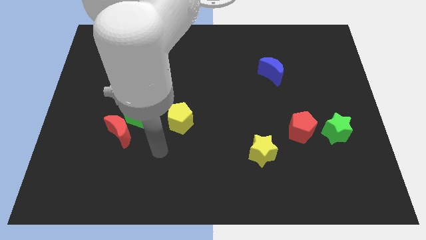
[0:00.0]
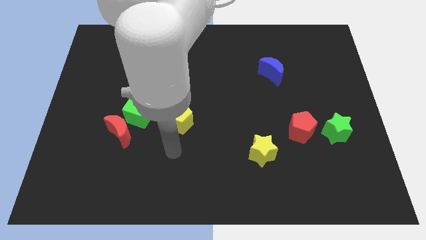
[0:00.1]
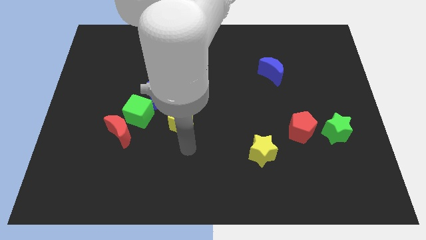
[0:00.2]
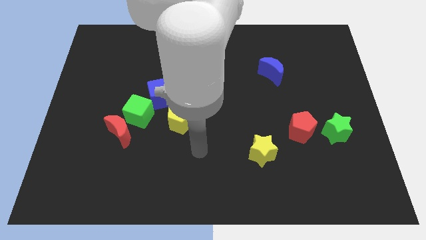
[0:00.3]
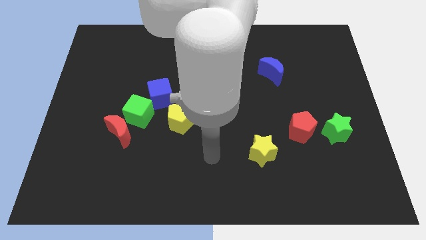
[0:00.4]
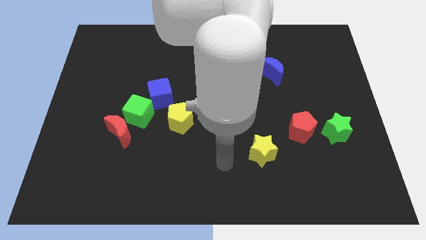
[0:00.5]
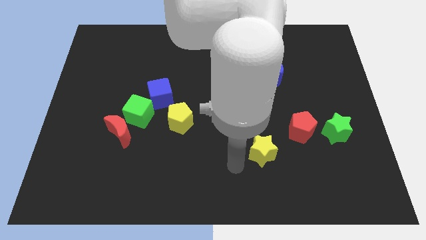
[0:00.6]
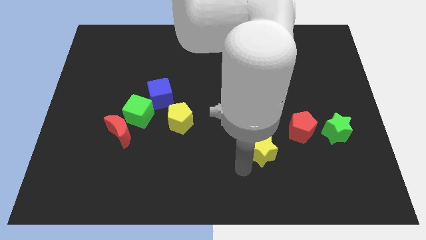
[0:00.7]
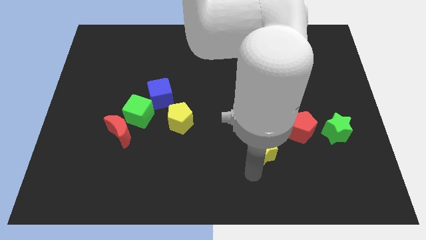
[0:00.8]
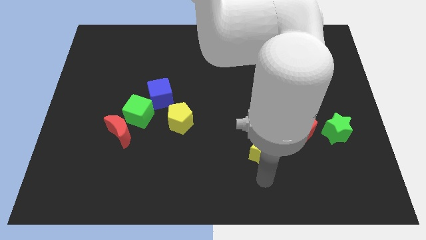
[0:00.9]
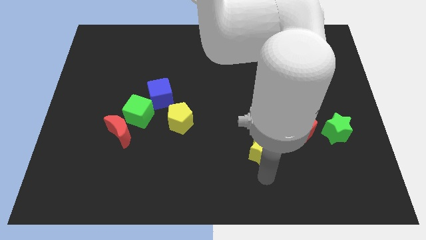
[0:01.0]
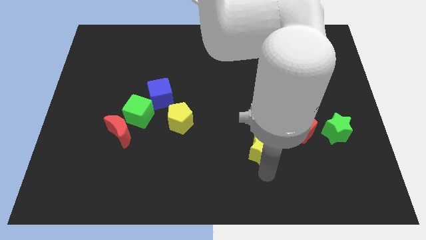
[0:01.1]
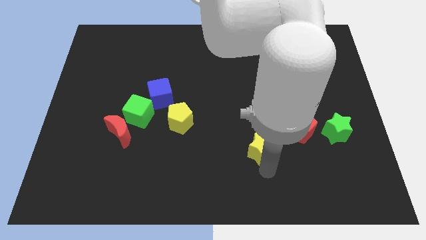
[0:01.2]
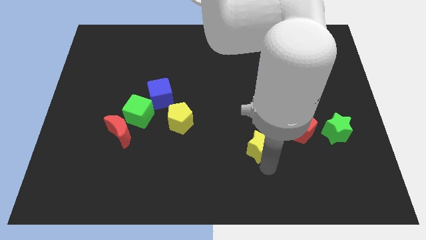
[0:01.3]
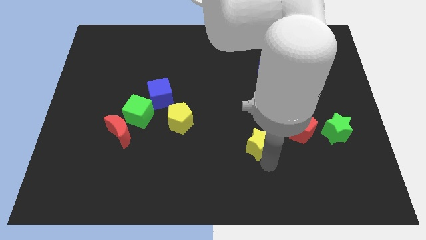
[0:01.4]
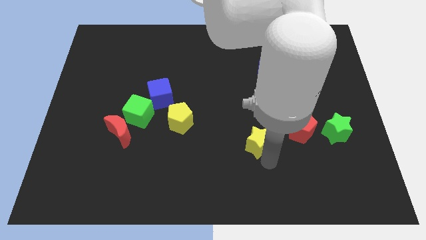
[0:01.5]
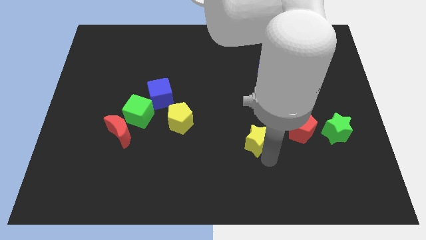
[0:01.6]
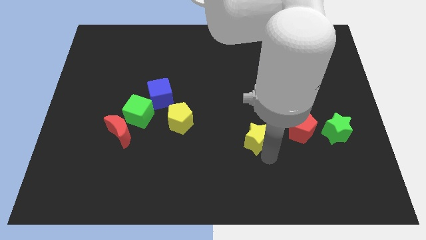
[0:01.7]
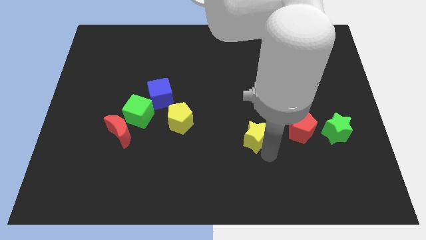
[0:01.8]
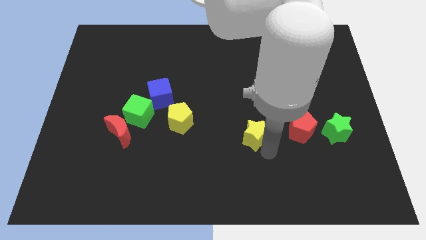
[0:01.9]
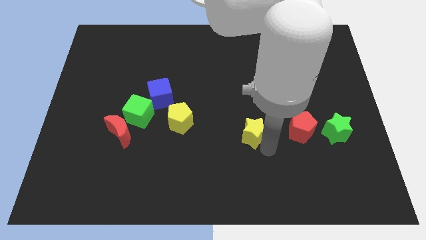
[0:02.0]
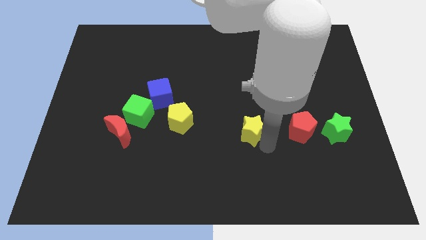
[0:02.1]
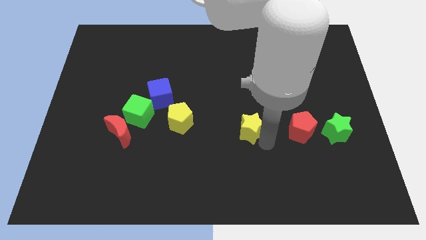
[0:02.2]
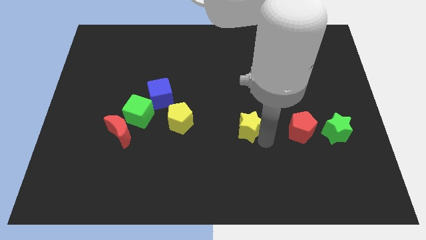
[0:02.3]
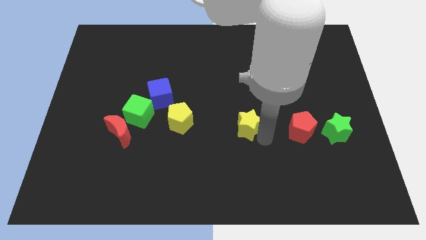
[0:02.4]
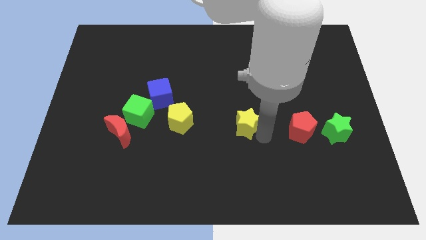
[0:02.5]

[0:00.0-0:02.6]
move the yellow star up somewhat

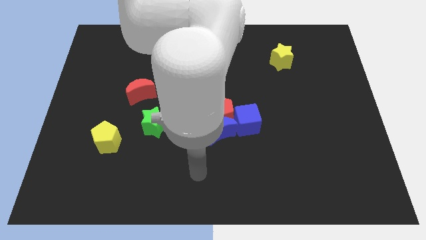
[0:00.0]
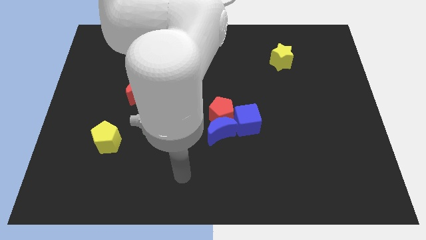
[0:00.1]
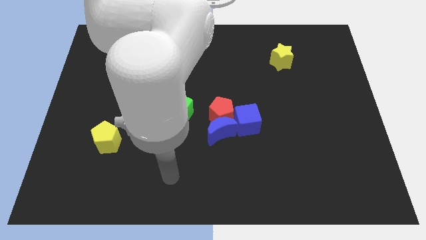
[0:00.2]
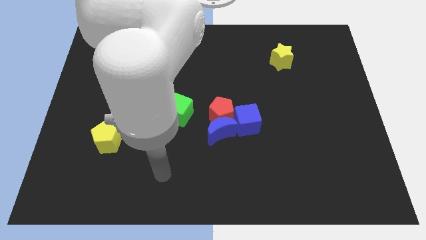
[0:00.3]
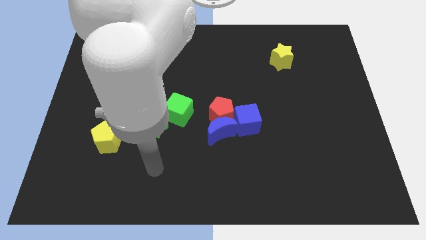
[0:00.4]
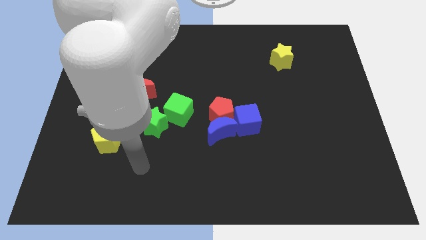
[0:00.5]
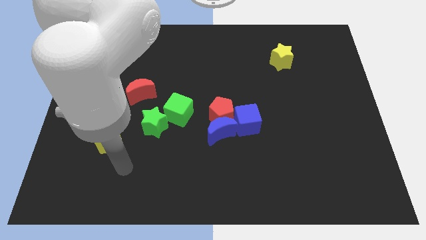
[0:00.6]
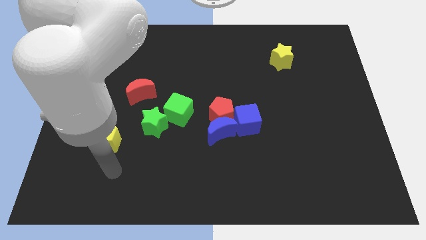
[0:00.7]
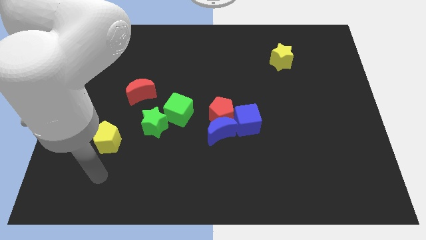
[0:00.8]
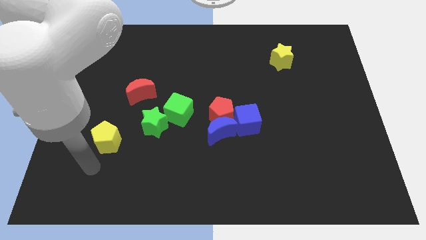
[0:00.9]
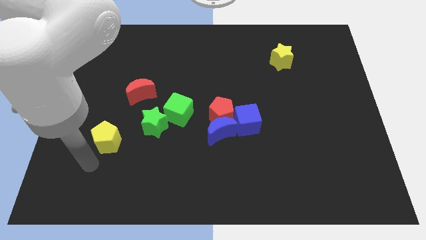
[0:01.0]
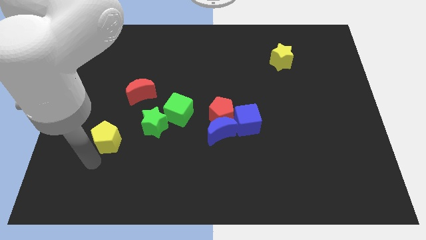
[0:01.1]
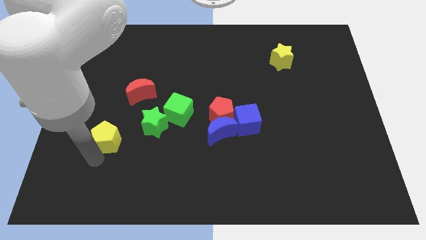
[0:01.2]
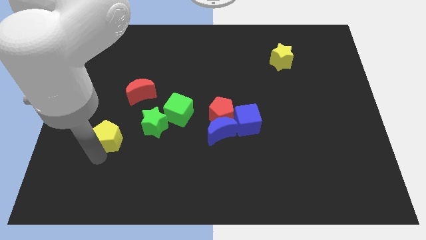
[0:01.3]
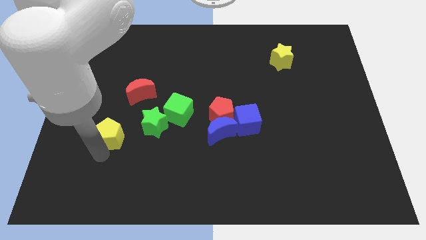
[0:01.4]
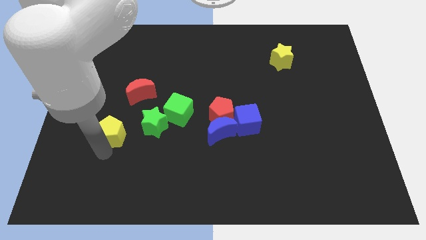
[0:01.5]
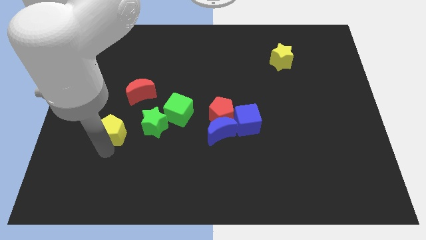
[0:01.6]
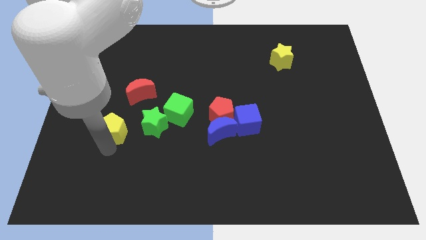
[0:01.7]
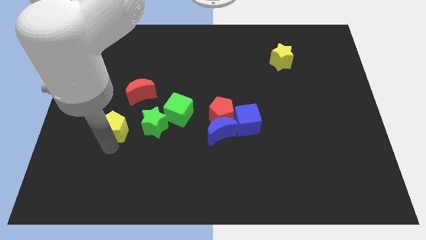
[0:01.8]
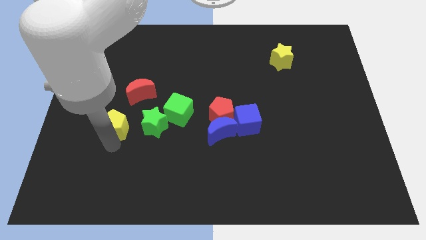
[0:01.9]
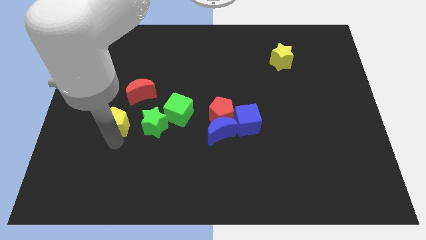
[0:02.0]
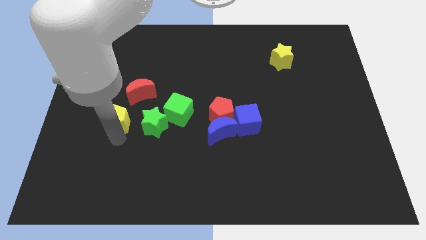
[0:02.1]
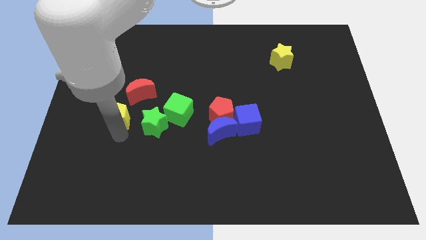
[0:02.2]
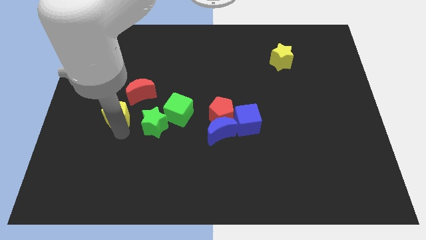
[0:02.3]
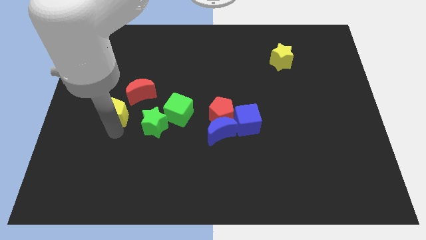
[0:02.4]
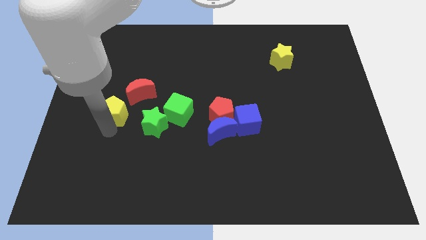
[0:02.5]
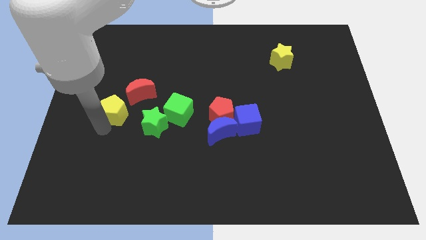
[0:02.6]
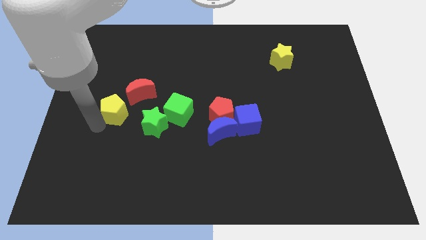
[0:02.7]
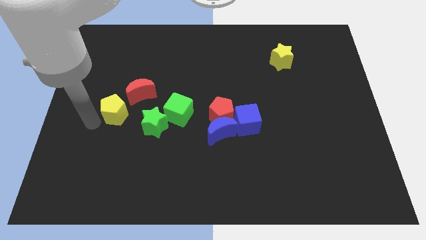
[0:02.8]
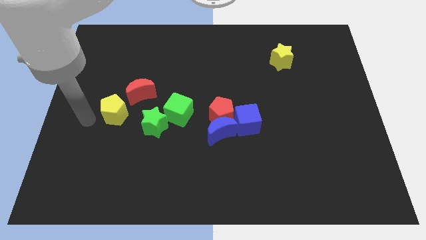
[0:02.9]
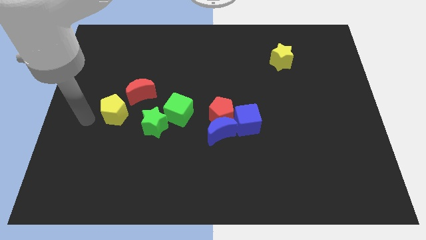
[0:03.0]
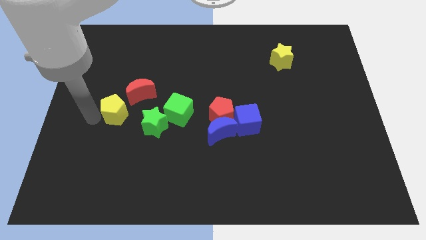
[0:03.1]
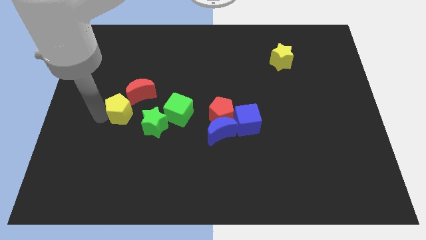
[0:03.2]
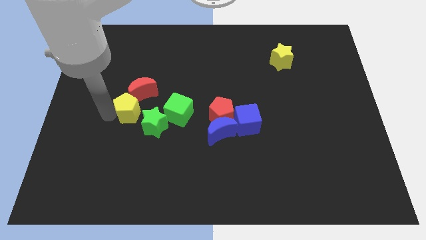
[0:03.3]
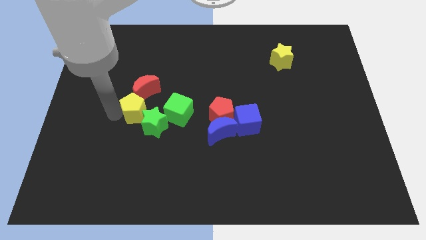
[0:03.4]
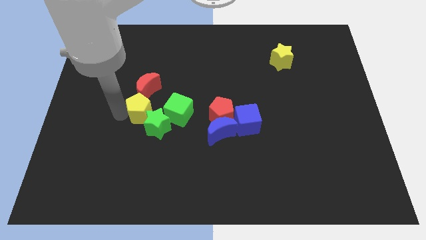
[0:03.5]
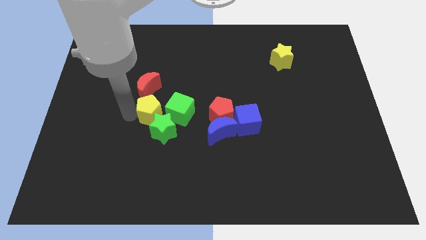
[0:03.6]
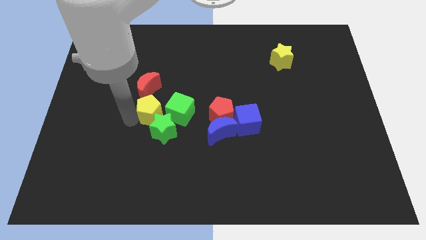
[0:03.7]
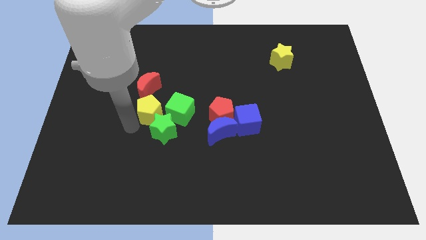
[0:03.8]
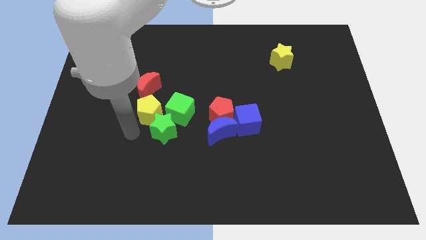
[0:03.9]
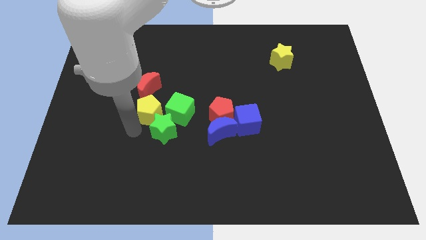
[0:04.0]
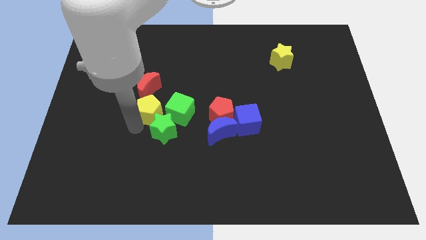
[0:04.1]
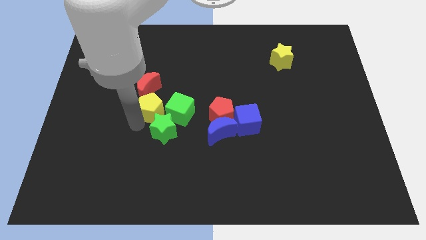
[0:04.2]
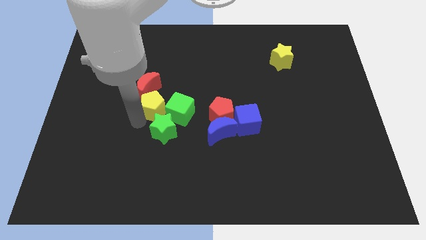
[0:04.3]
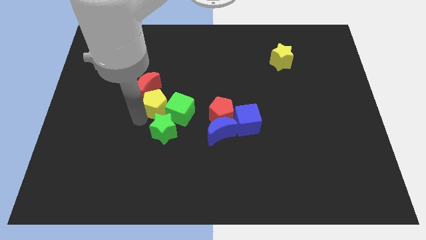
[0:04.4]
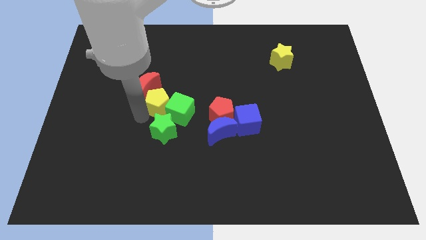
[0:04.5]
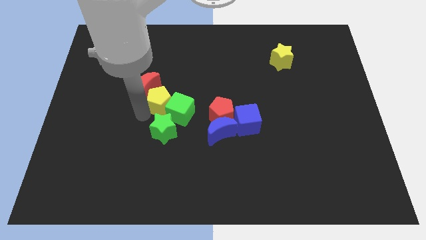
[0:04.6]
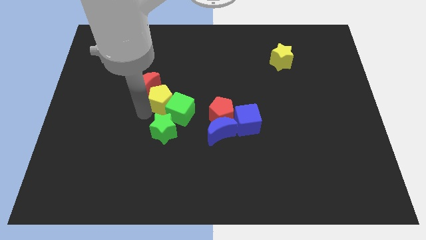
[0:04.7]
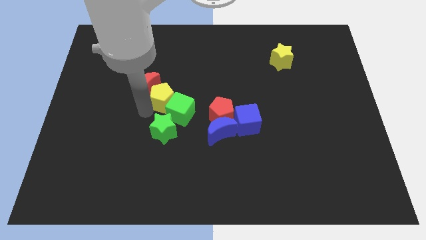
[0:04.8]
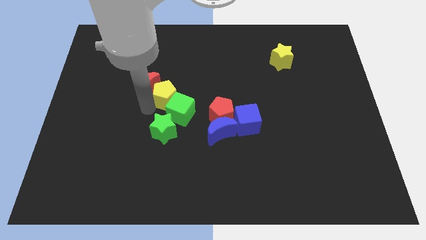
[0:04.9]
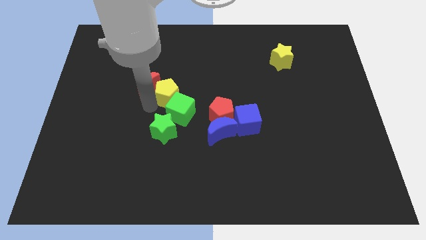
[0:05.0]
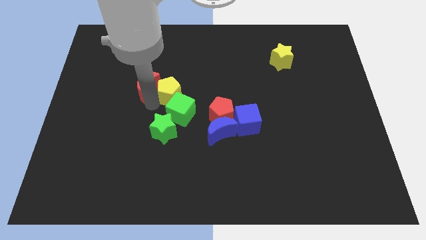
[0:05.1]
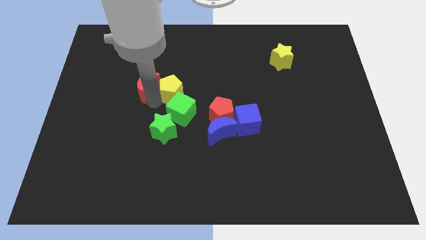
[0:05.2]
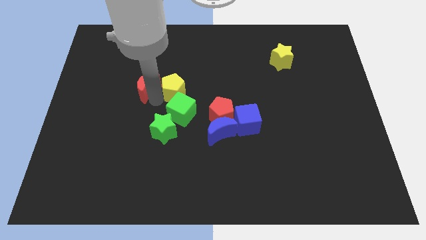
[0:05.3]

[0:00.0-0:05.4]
push the yellow pentagon up and to the right diagonally
